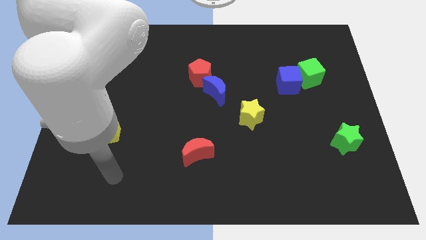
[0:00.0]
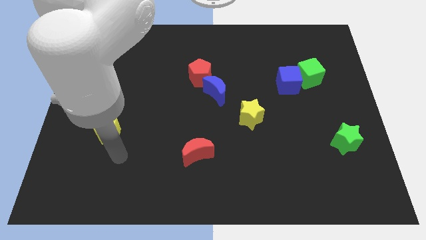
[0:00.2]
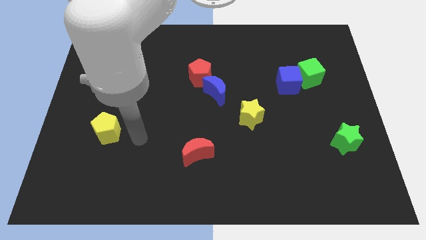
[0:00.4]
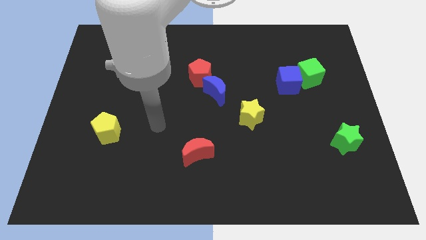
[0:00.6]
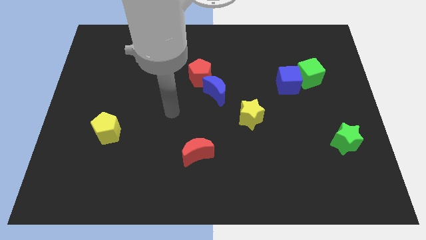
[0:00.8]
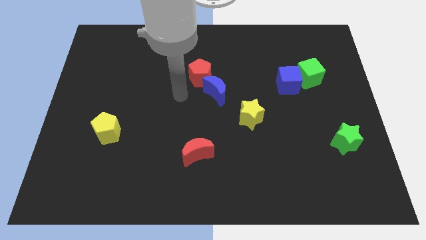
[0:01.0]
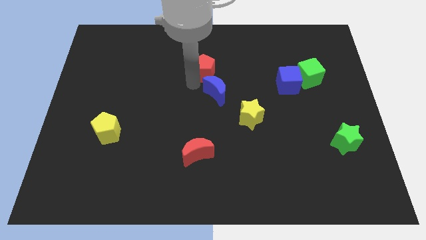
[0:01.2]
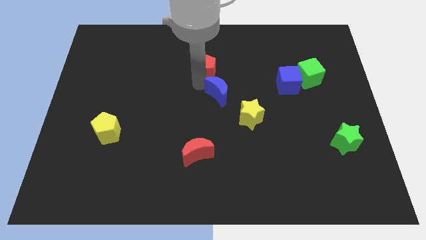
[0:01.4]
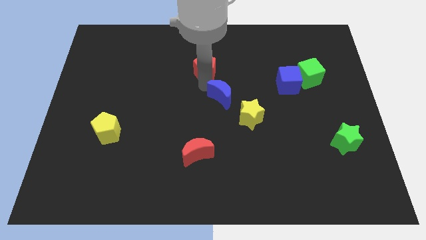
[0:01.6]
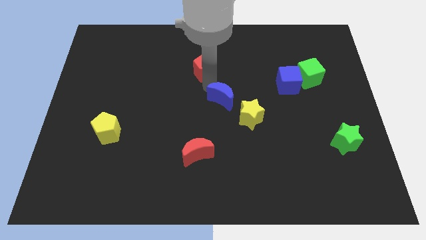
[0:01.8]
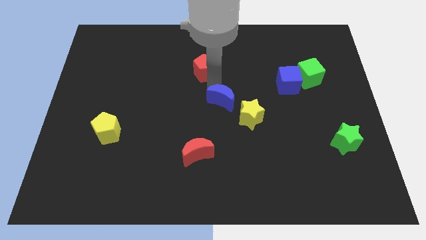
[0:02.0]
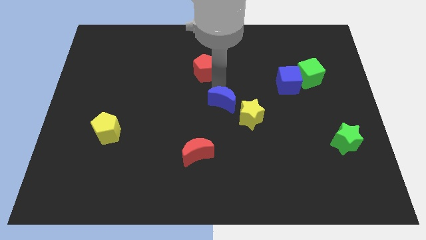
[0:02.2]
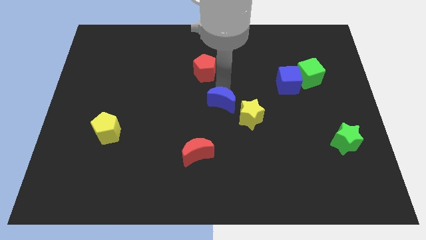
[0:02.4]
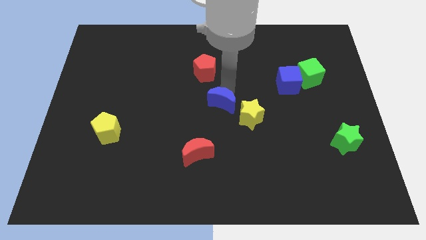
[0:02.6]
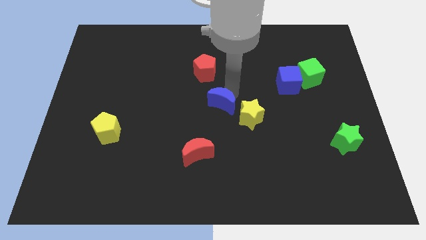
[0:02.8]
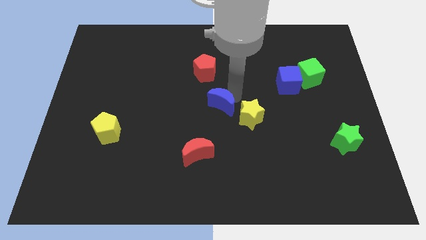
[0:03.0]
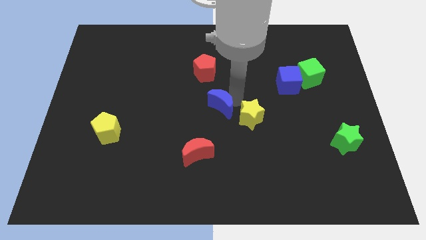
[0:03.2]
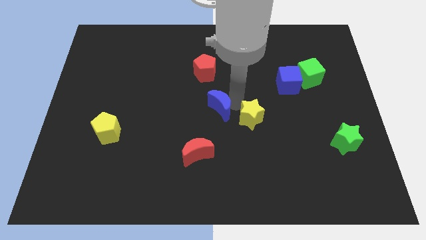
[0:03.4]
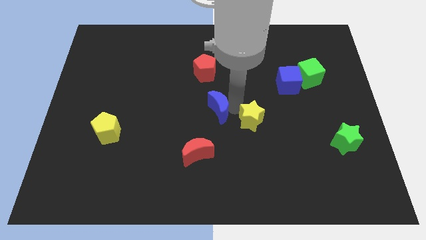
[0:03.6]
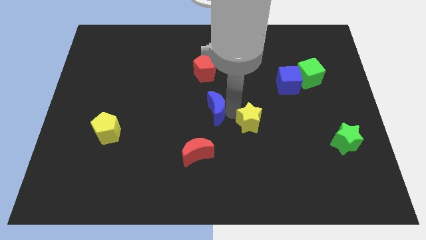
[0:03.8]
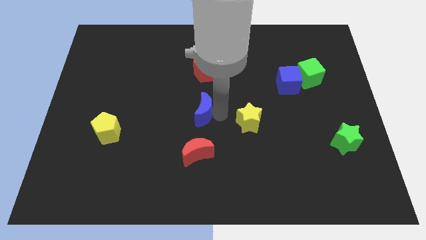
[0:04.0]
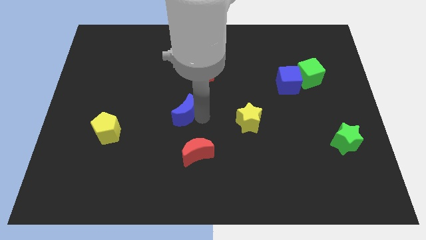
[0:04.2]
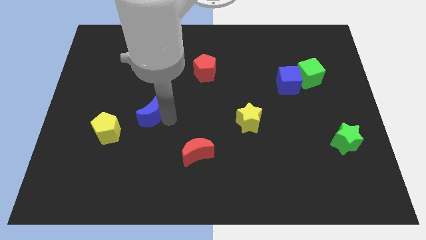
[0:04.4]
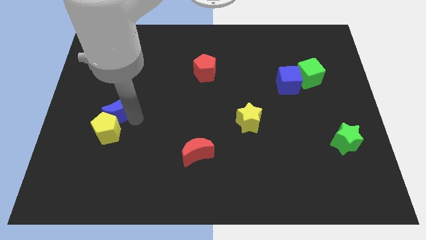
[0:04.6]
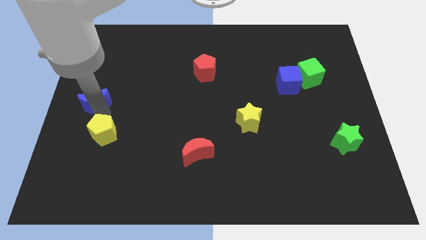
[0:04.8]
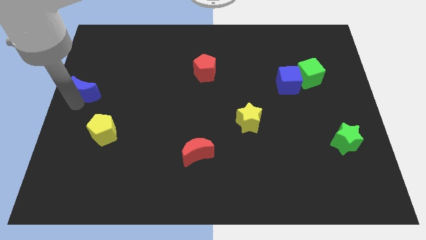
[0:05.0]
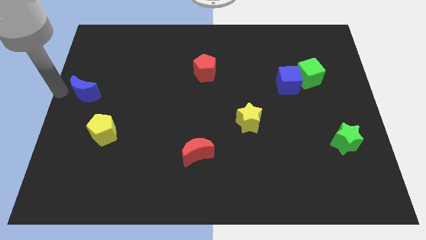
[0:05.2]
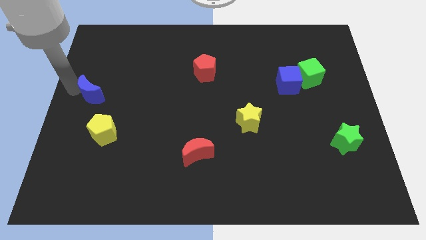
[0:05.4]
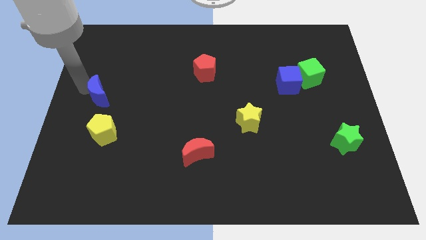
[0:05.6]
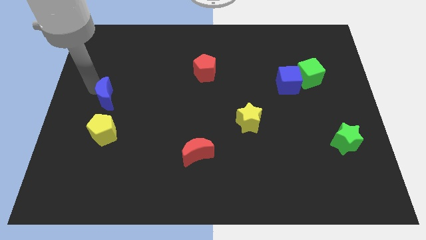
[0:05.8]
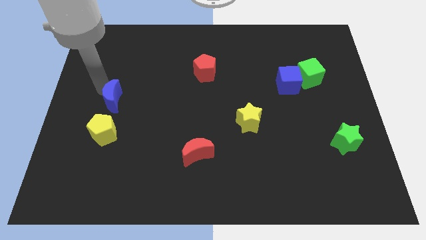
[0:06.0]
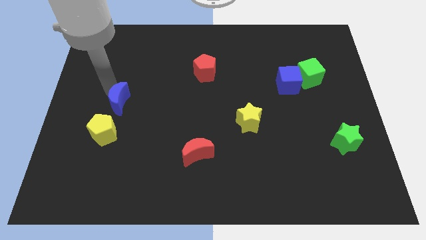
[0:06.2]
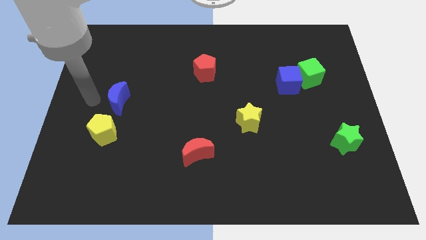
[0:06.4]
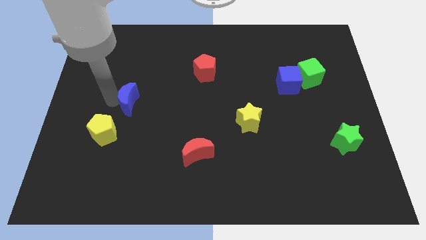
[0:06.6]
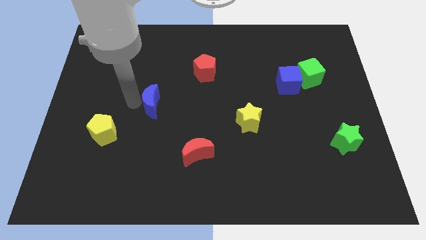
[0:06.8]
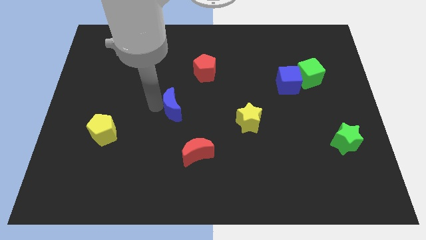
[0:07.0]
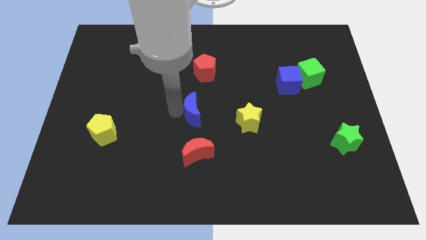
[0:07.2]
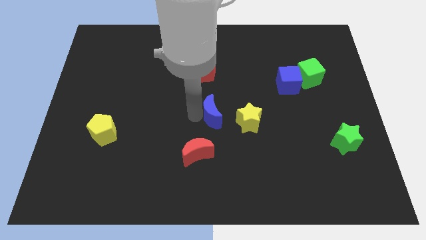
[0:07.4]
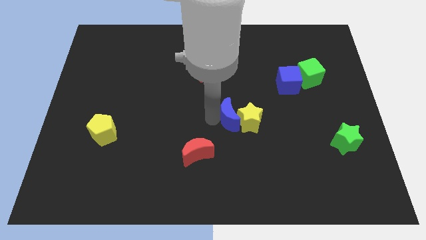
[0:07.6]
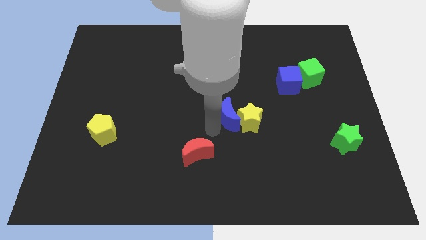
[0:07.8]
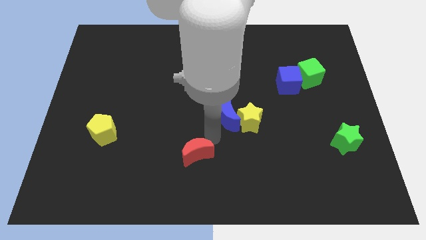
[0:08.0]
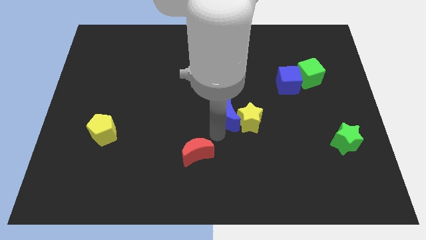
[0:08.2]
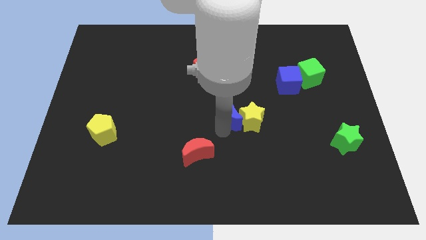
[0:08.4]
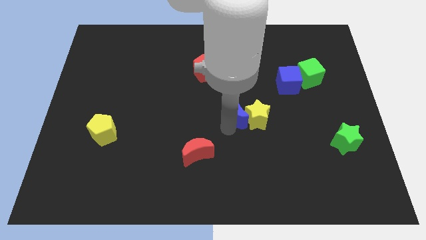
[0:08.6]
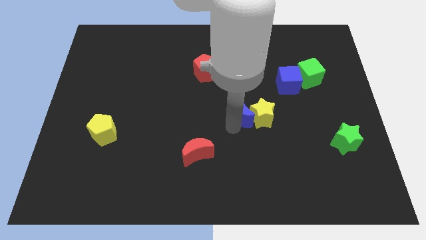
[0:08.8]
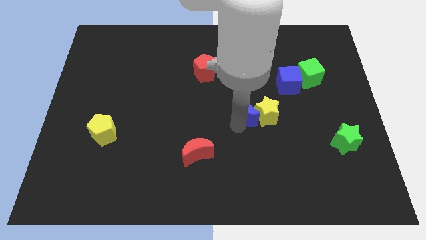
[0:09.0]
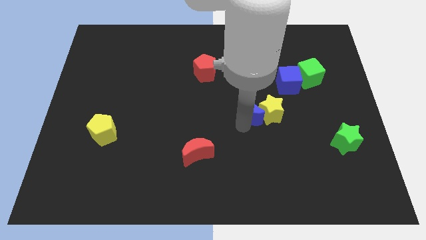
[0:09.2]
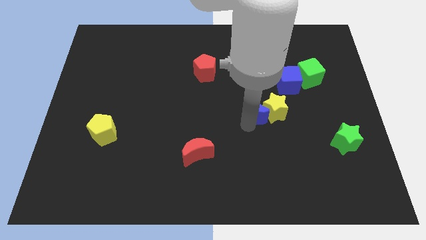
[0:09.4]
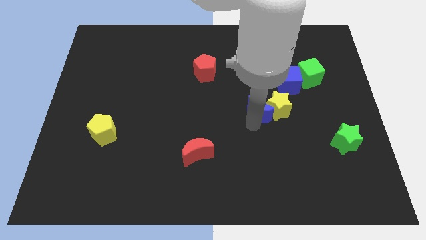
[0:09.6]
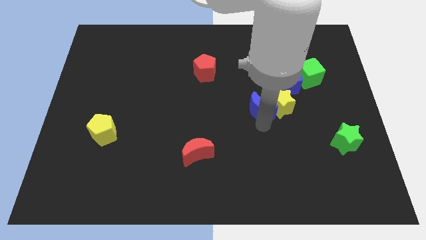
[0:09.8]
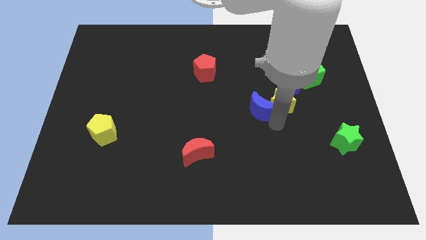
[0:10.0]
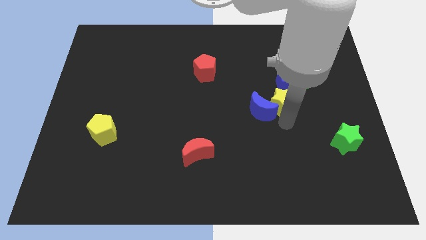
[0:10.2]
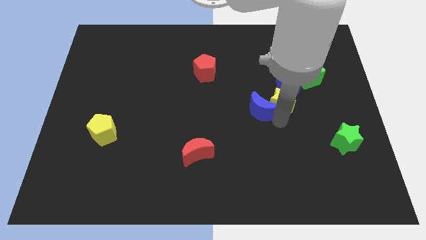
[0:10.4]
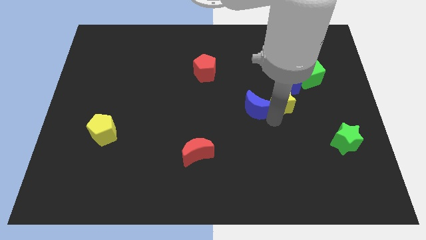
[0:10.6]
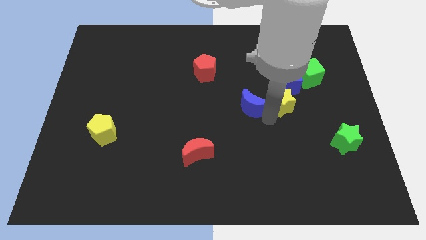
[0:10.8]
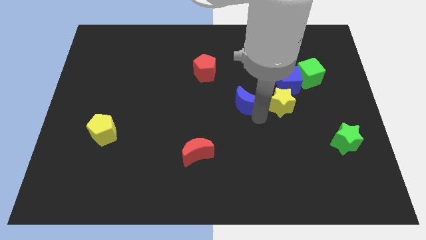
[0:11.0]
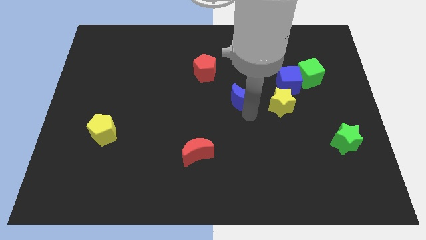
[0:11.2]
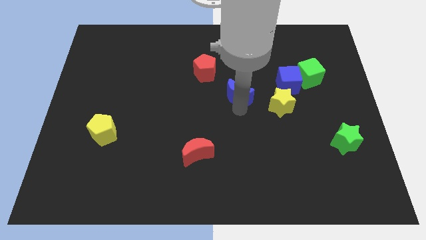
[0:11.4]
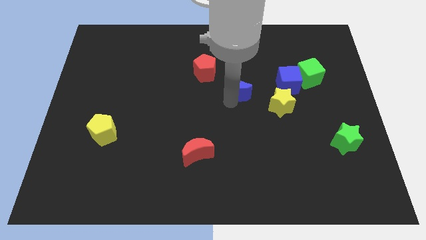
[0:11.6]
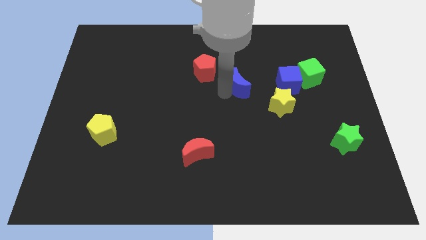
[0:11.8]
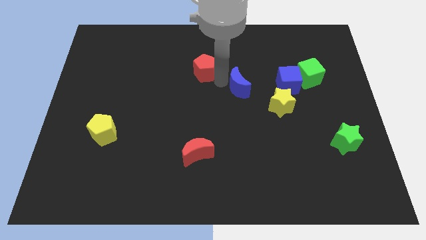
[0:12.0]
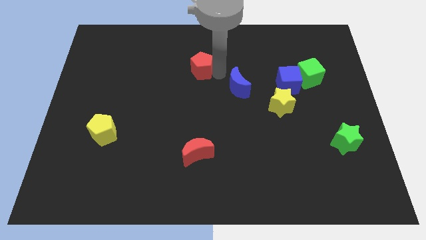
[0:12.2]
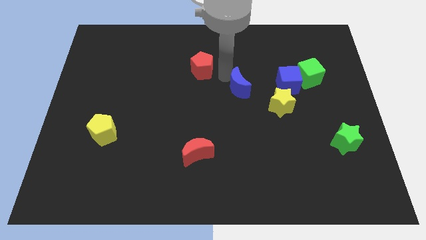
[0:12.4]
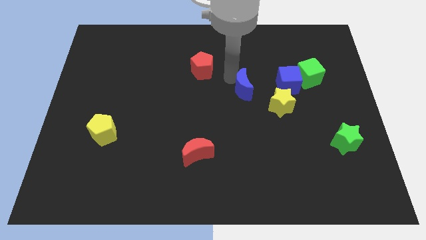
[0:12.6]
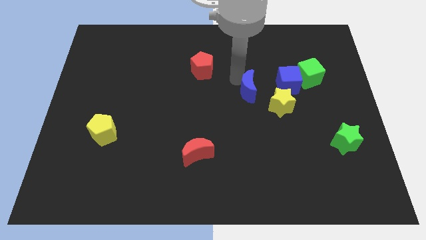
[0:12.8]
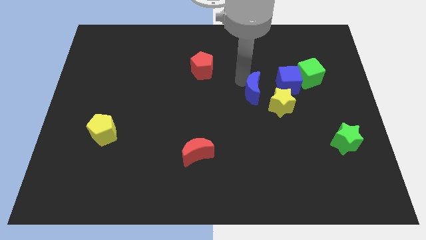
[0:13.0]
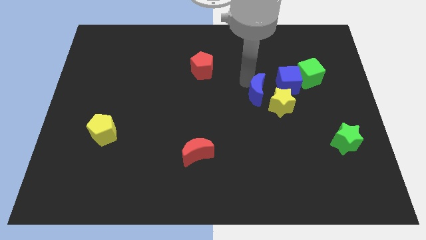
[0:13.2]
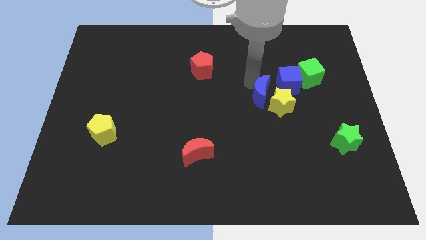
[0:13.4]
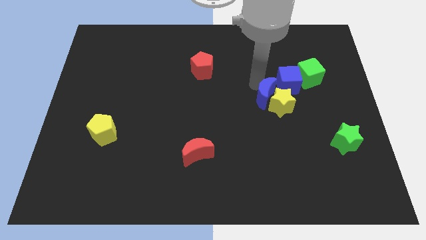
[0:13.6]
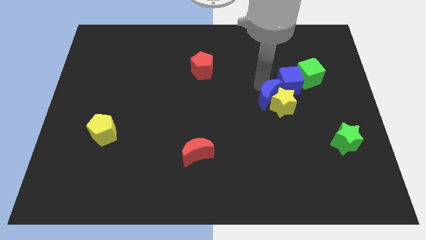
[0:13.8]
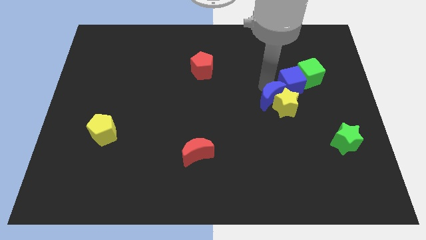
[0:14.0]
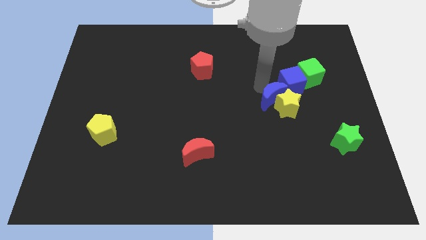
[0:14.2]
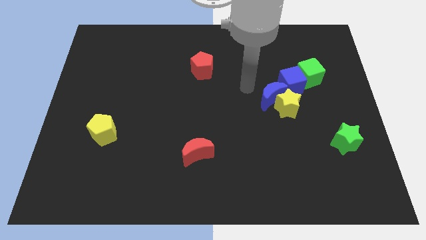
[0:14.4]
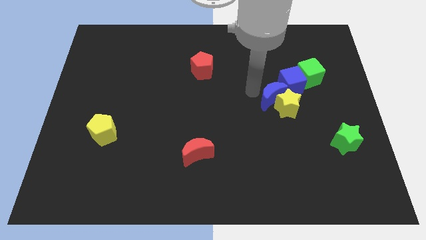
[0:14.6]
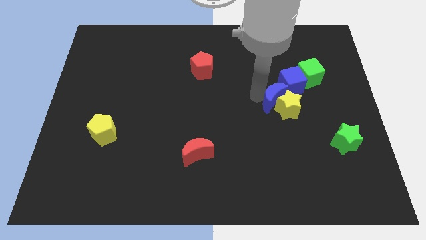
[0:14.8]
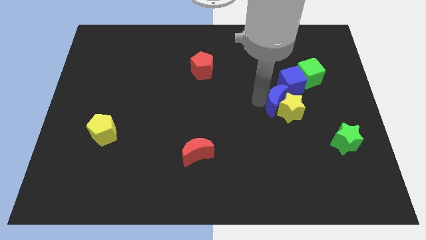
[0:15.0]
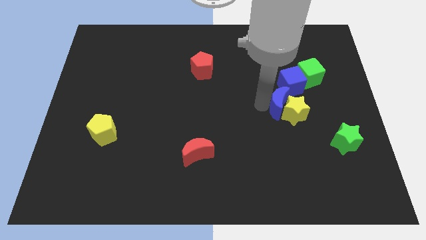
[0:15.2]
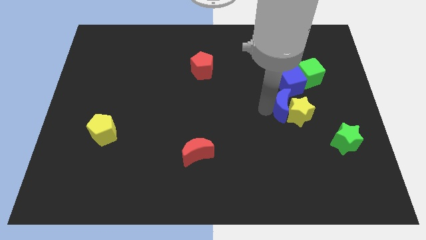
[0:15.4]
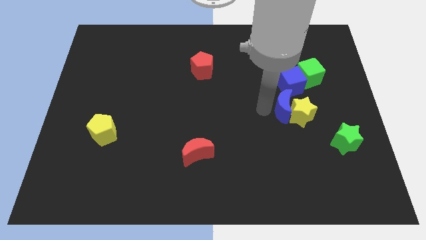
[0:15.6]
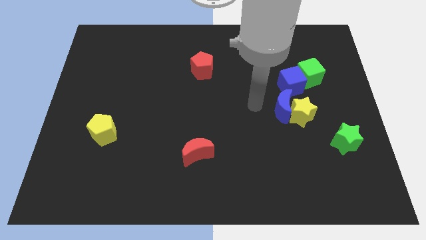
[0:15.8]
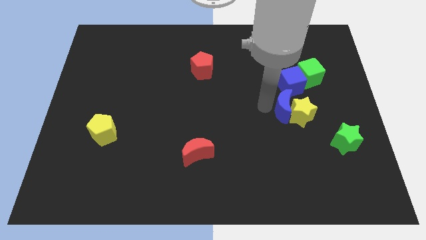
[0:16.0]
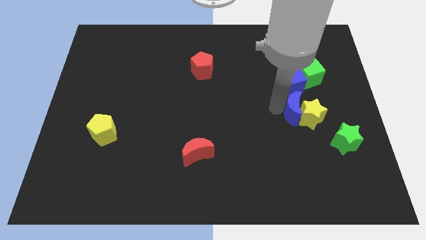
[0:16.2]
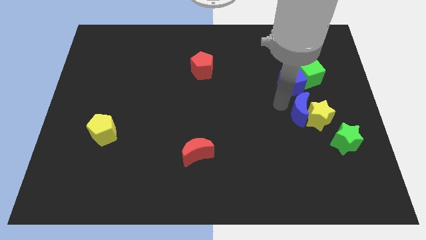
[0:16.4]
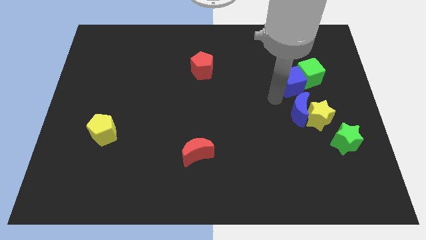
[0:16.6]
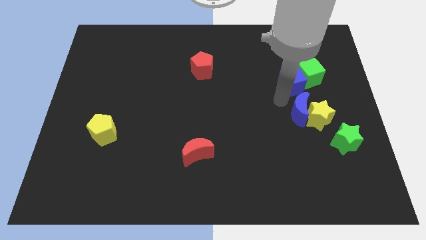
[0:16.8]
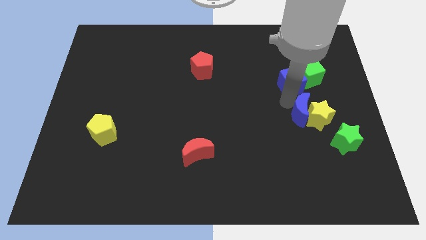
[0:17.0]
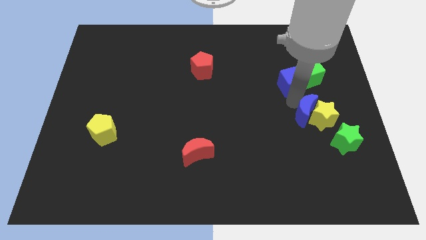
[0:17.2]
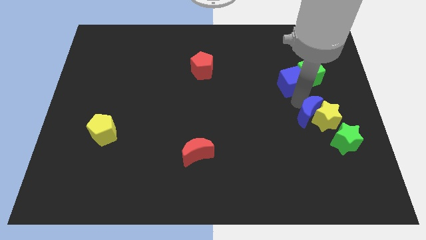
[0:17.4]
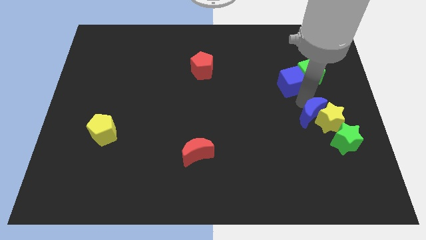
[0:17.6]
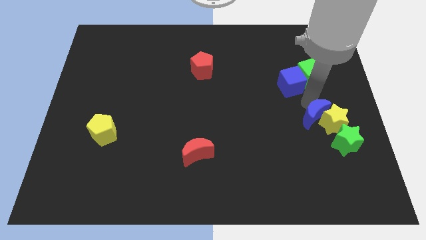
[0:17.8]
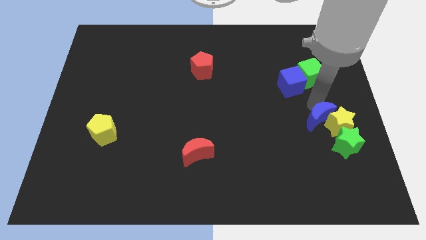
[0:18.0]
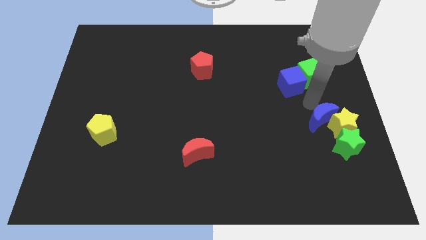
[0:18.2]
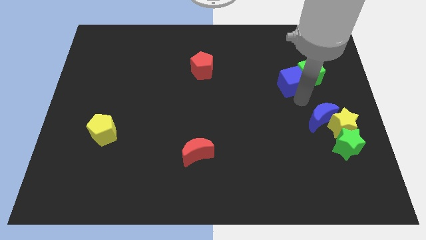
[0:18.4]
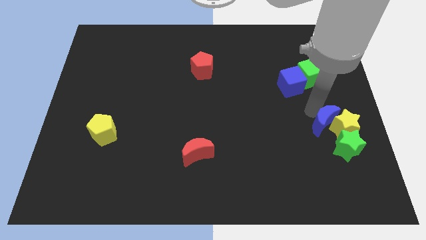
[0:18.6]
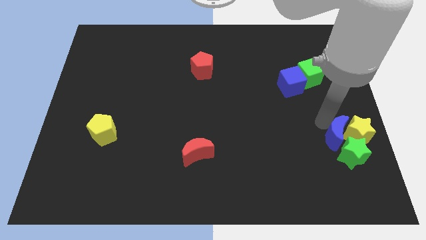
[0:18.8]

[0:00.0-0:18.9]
slide the blue moon next to the green star
